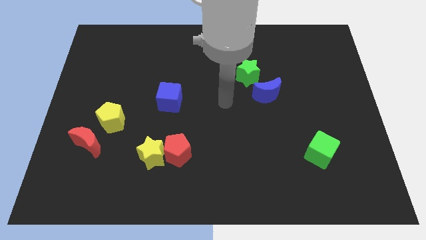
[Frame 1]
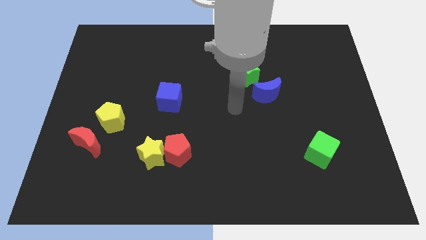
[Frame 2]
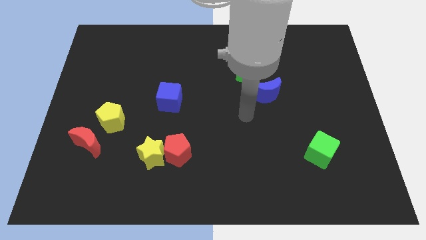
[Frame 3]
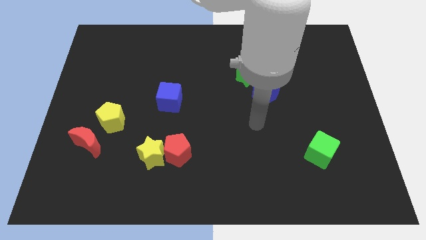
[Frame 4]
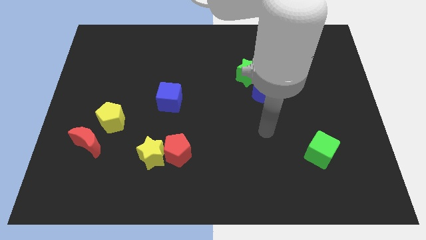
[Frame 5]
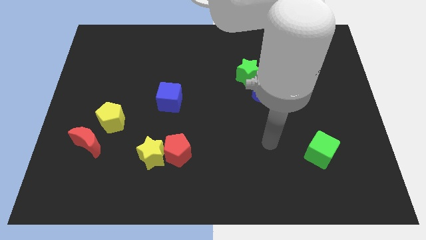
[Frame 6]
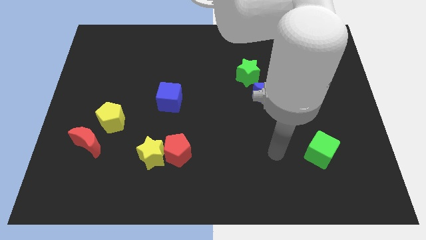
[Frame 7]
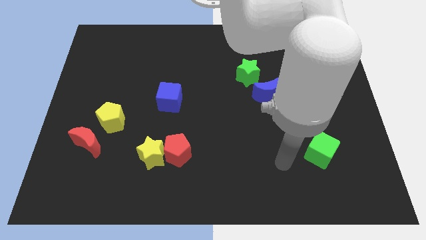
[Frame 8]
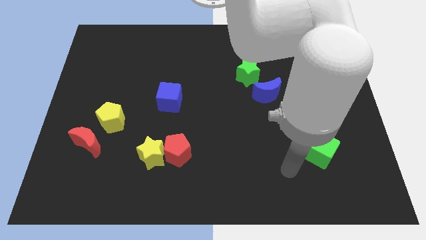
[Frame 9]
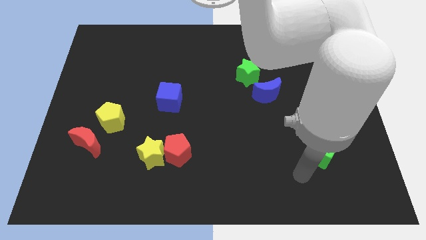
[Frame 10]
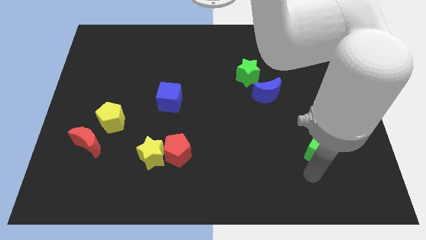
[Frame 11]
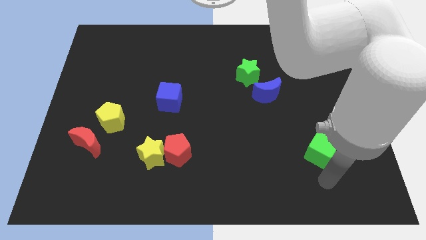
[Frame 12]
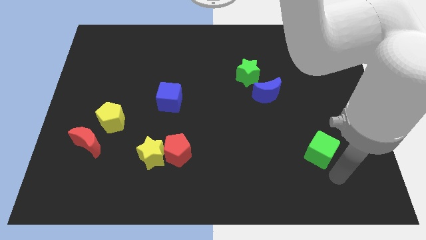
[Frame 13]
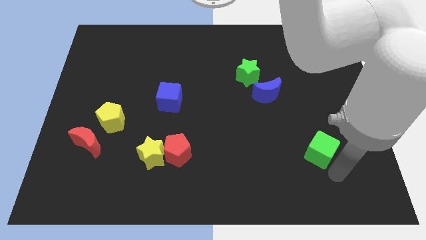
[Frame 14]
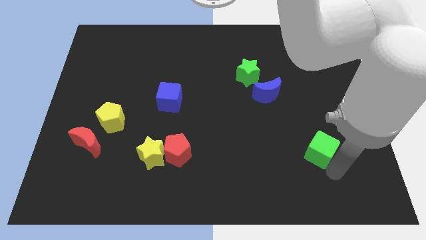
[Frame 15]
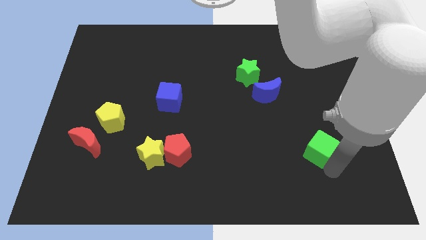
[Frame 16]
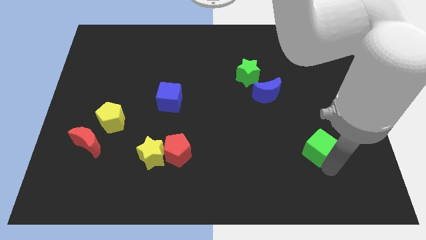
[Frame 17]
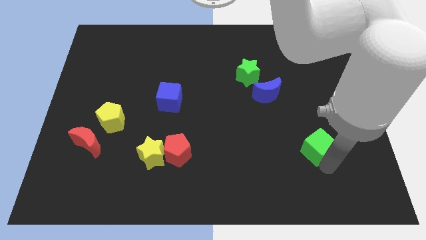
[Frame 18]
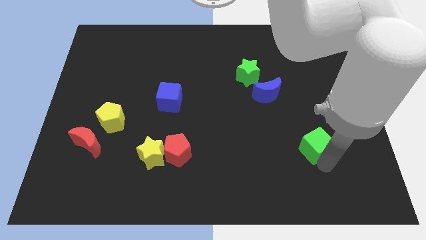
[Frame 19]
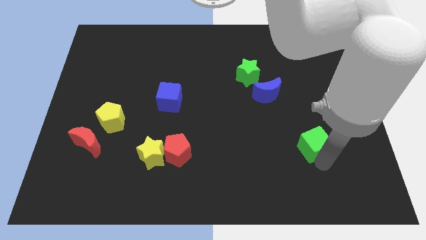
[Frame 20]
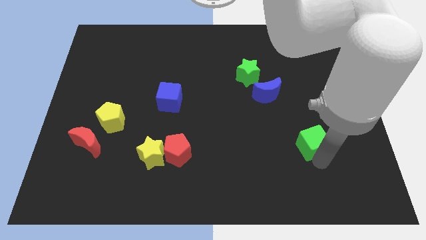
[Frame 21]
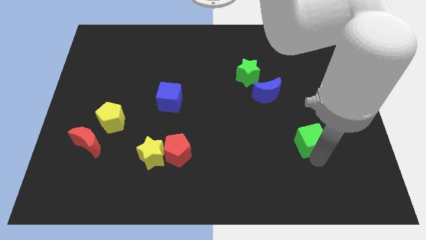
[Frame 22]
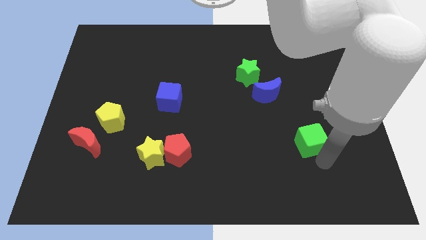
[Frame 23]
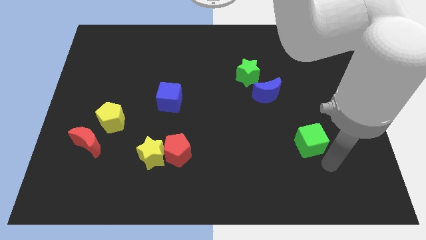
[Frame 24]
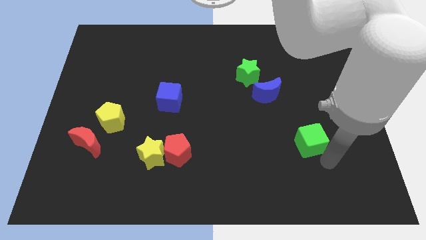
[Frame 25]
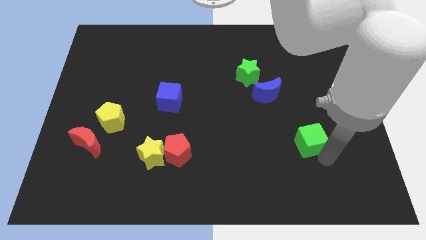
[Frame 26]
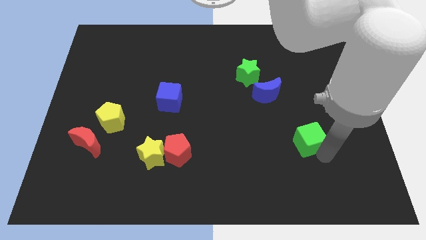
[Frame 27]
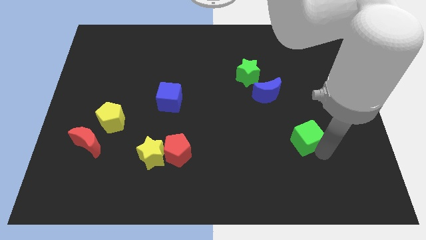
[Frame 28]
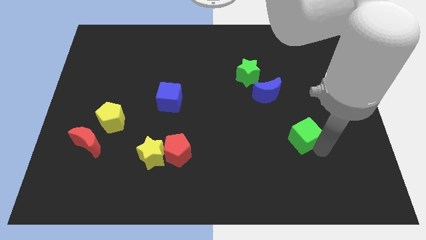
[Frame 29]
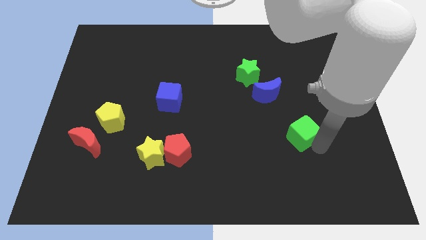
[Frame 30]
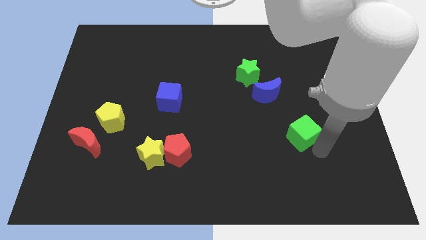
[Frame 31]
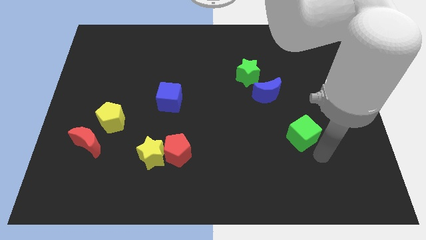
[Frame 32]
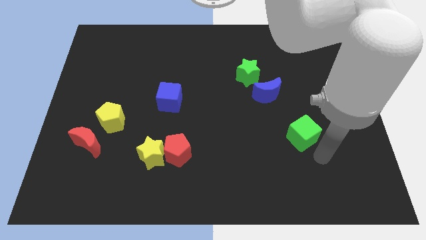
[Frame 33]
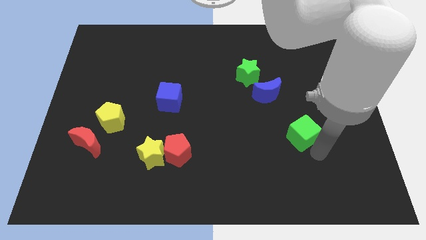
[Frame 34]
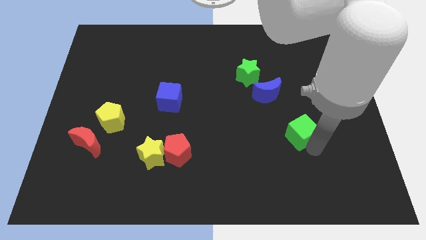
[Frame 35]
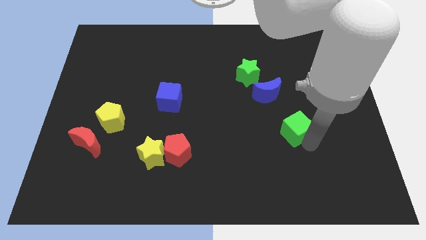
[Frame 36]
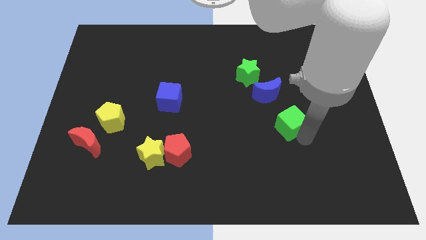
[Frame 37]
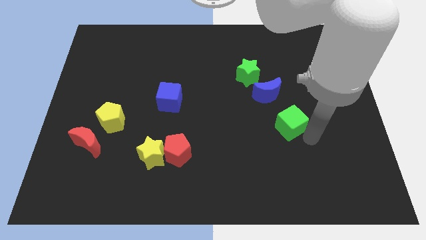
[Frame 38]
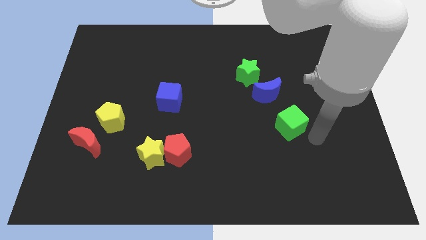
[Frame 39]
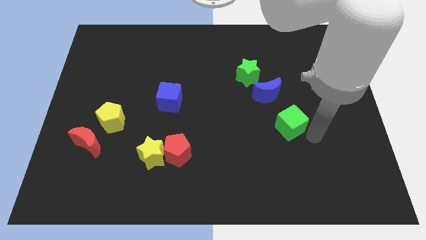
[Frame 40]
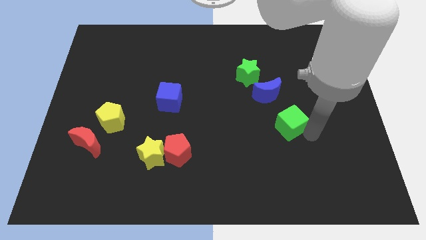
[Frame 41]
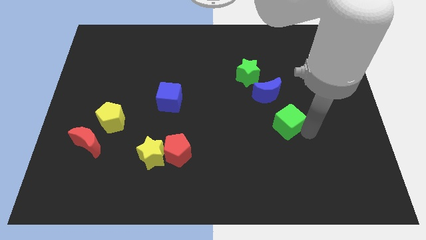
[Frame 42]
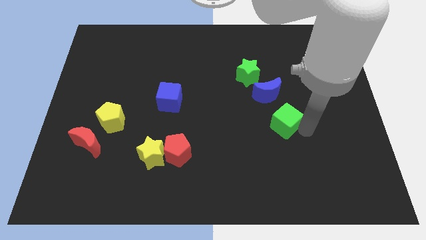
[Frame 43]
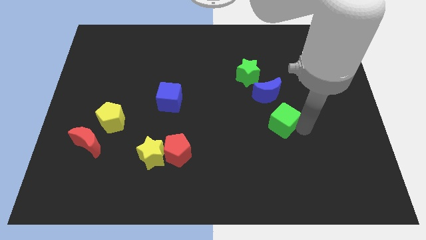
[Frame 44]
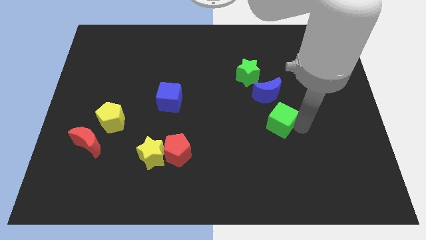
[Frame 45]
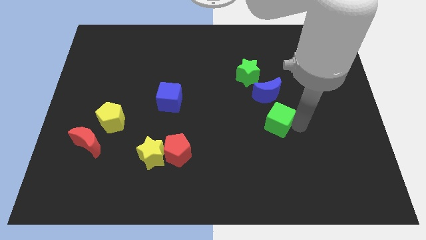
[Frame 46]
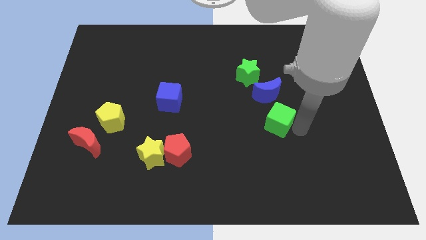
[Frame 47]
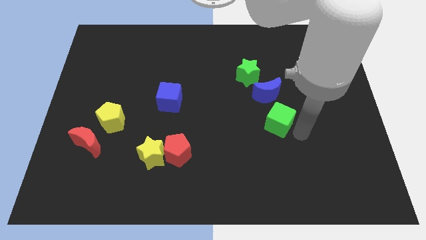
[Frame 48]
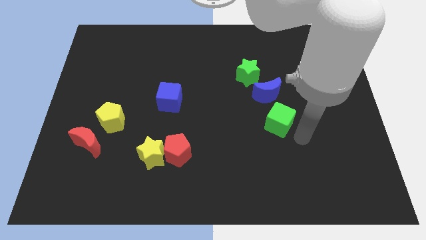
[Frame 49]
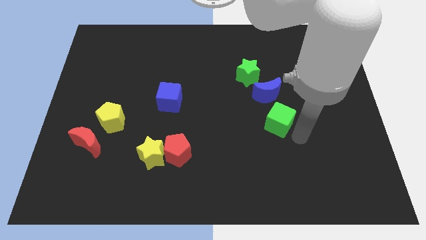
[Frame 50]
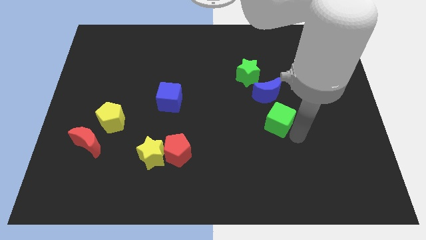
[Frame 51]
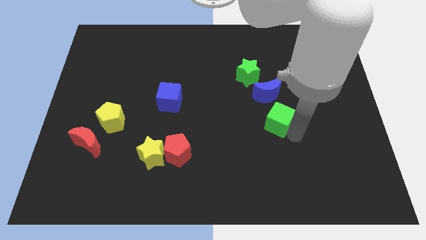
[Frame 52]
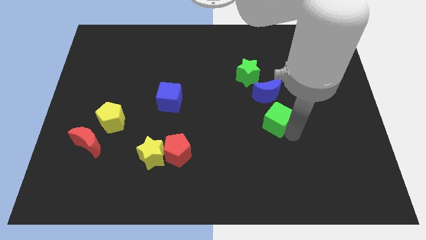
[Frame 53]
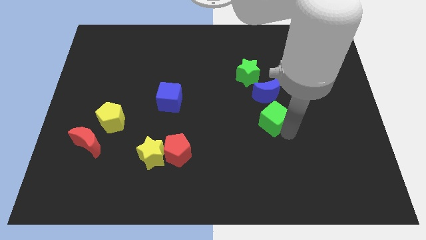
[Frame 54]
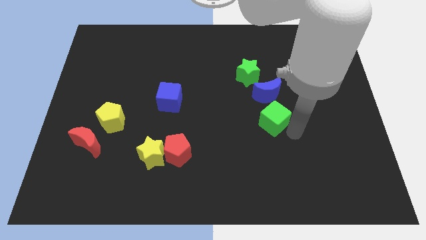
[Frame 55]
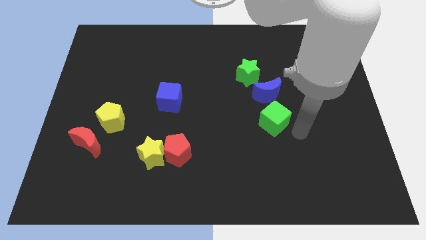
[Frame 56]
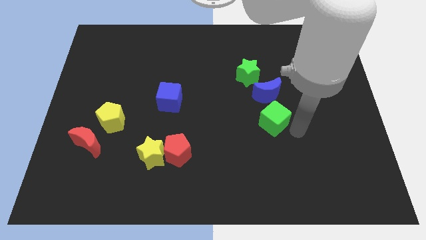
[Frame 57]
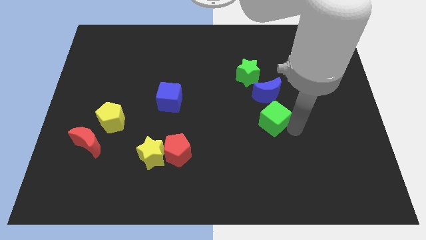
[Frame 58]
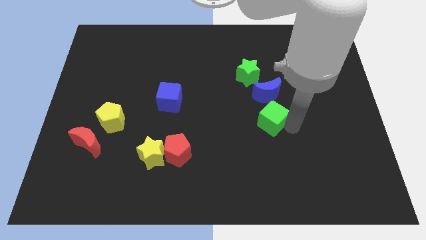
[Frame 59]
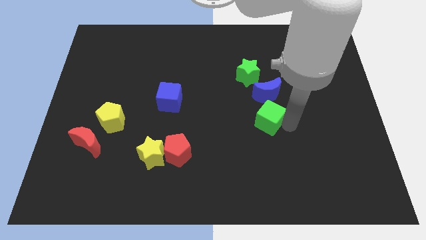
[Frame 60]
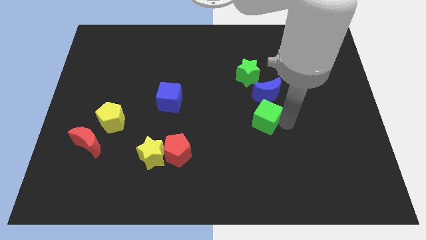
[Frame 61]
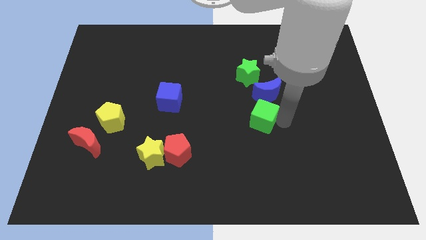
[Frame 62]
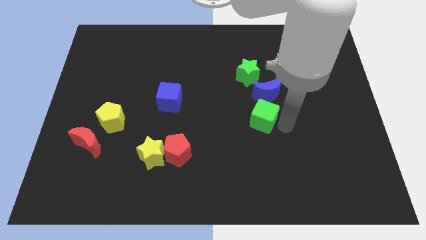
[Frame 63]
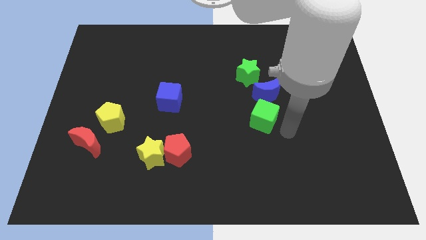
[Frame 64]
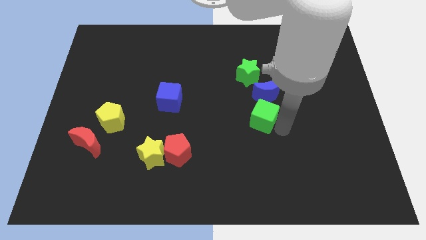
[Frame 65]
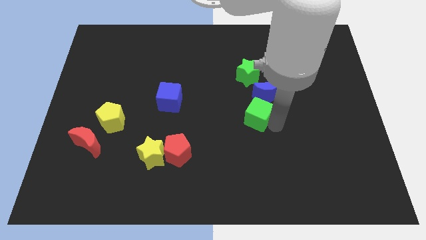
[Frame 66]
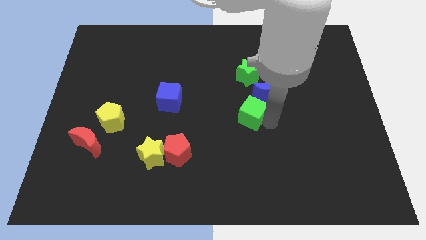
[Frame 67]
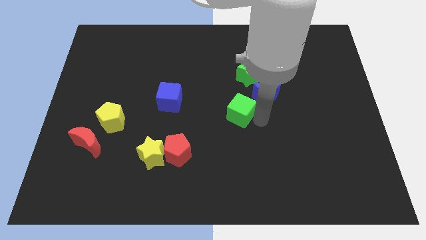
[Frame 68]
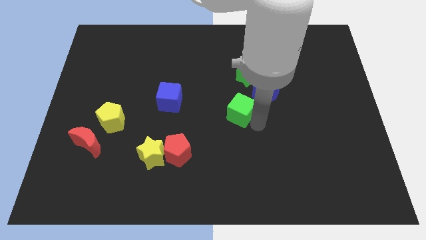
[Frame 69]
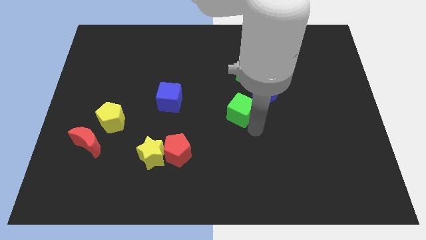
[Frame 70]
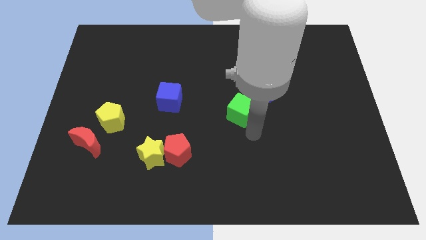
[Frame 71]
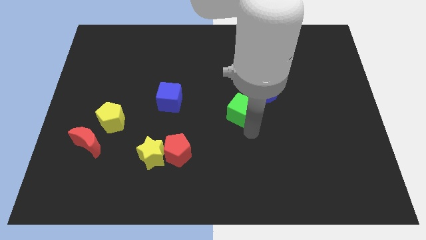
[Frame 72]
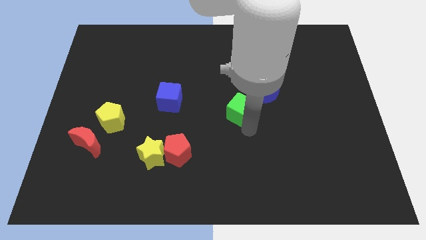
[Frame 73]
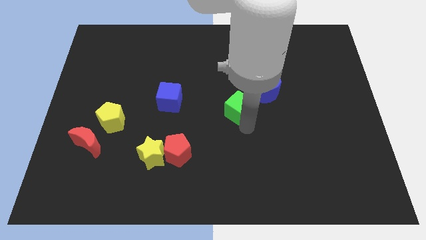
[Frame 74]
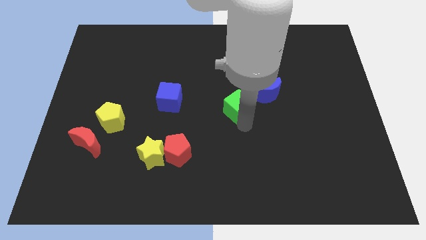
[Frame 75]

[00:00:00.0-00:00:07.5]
push the green cube up and left
